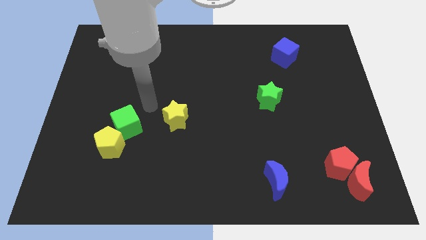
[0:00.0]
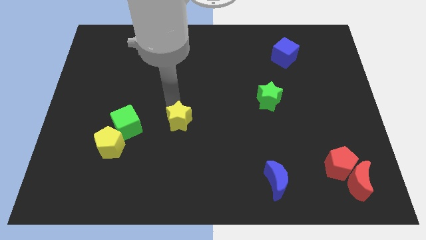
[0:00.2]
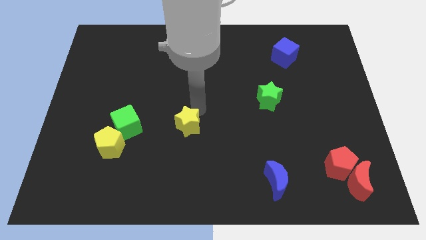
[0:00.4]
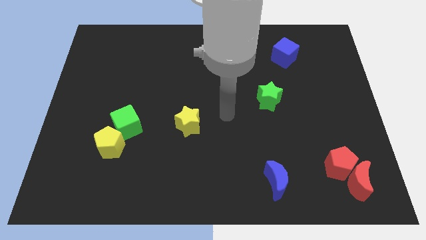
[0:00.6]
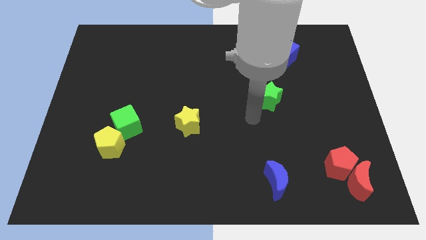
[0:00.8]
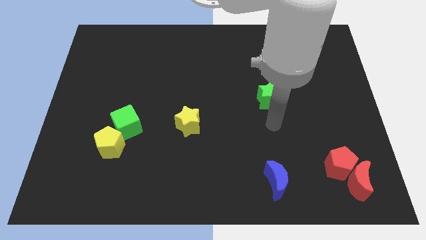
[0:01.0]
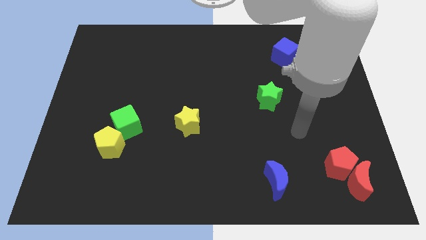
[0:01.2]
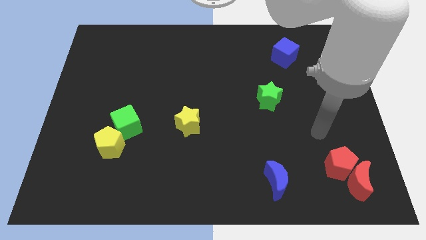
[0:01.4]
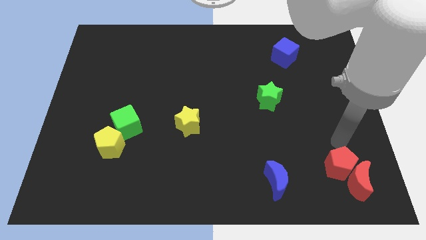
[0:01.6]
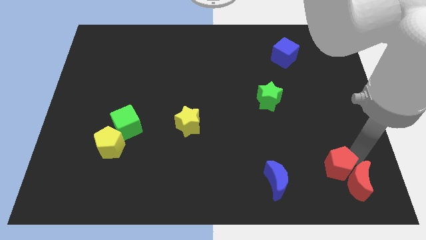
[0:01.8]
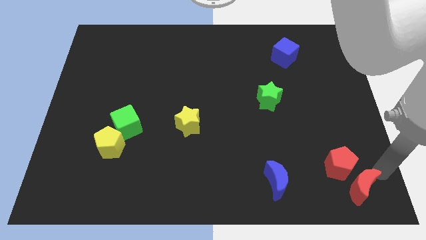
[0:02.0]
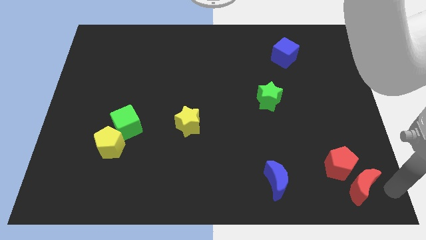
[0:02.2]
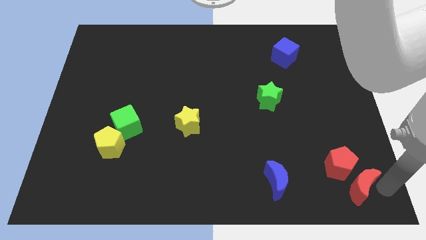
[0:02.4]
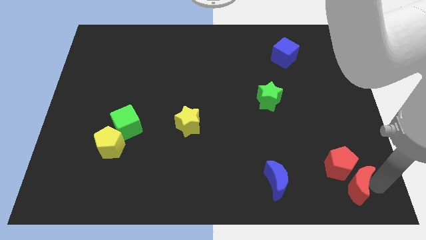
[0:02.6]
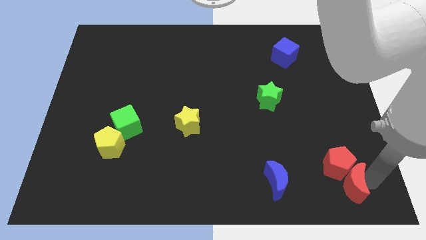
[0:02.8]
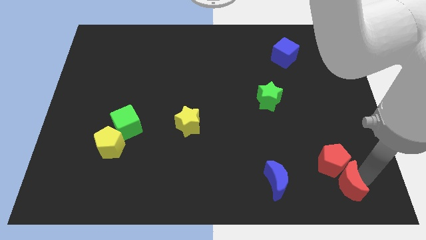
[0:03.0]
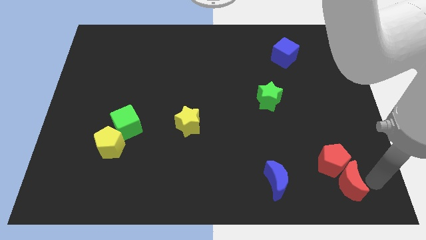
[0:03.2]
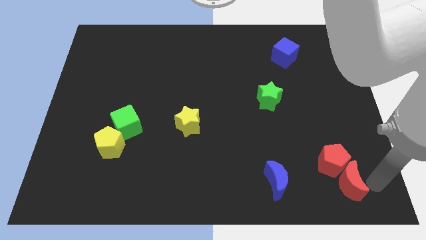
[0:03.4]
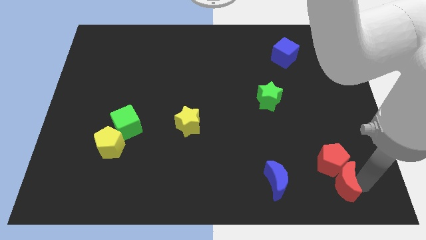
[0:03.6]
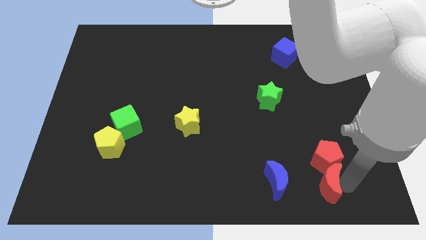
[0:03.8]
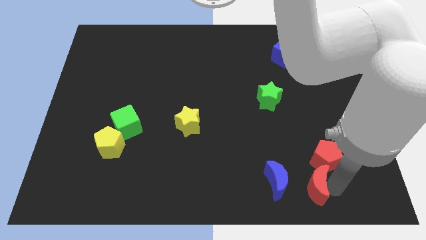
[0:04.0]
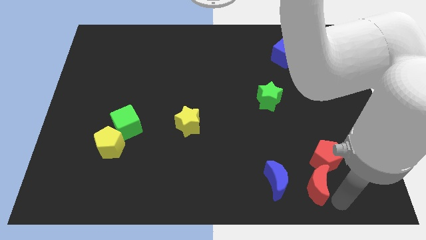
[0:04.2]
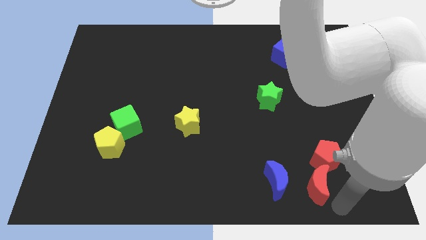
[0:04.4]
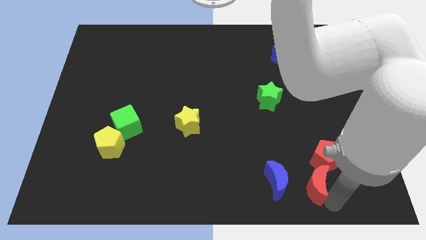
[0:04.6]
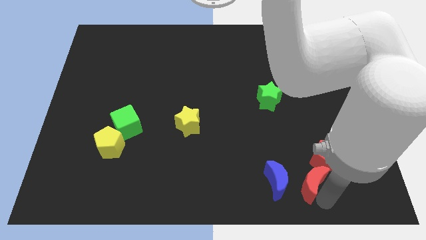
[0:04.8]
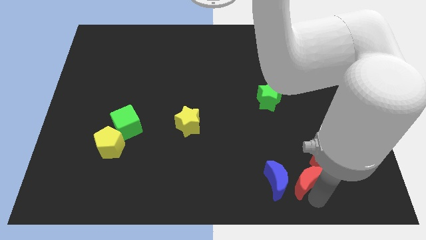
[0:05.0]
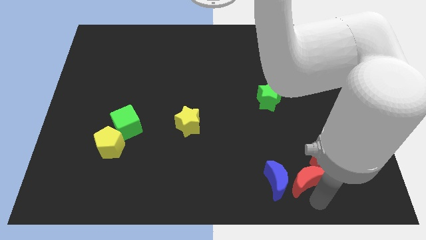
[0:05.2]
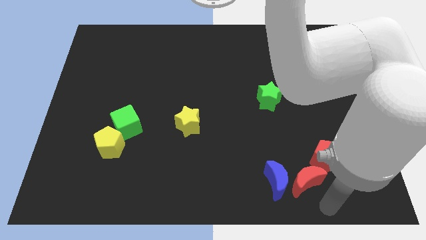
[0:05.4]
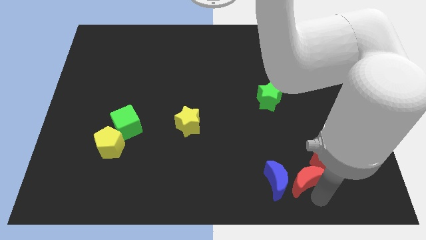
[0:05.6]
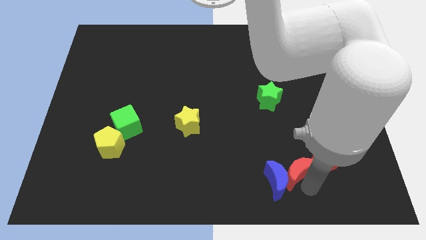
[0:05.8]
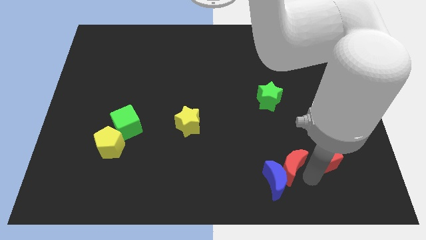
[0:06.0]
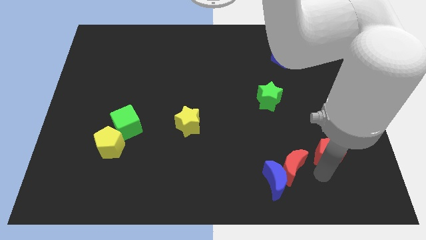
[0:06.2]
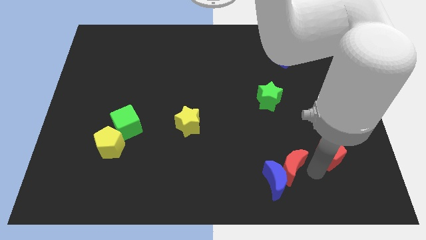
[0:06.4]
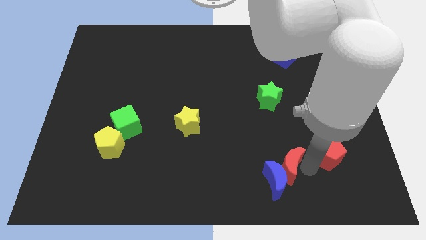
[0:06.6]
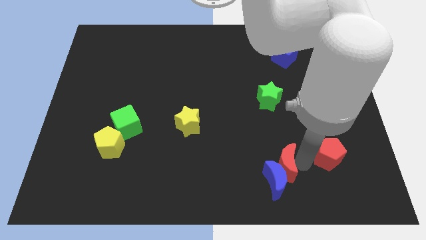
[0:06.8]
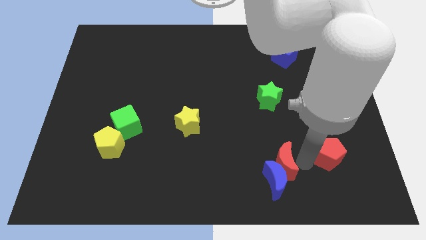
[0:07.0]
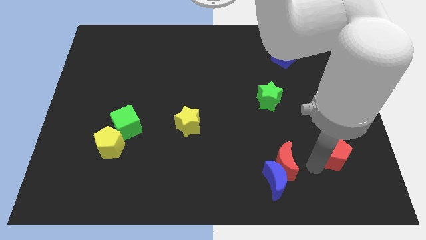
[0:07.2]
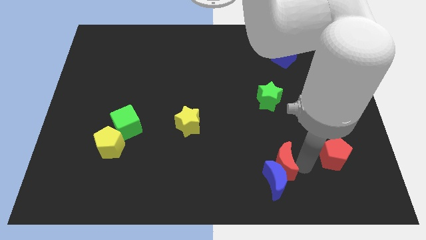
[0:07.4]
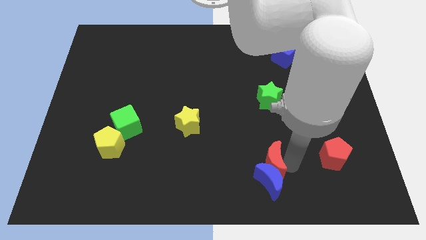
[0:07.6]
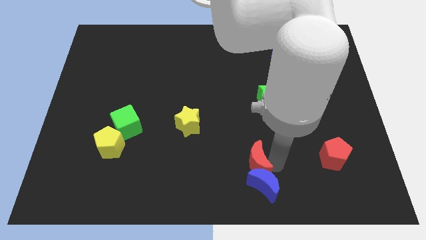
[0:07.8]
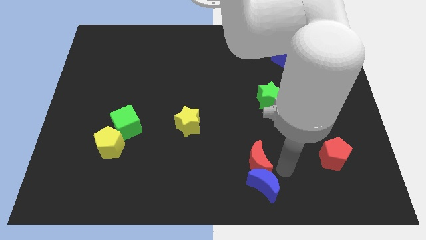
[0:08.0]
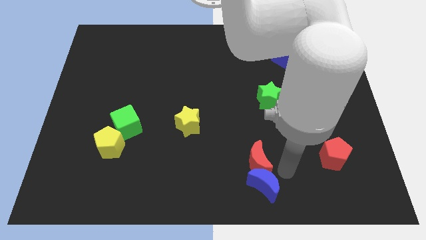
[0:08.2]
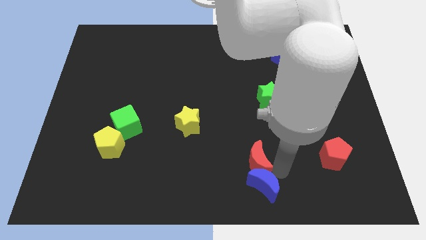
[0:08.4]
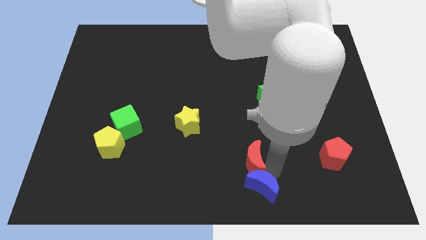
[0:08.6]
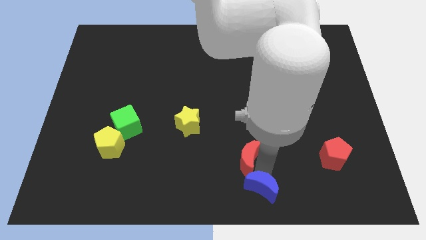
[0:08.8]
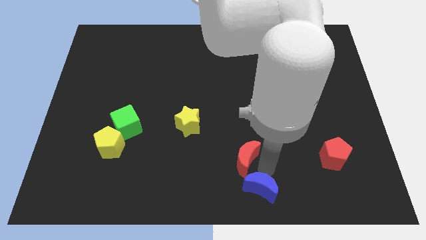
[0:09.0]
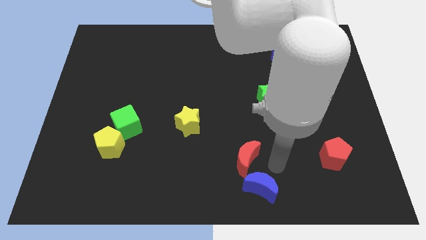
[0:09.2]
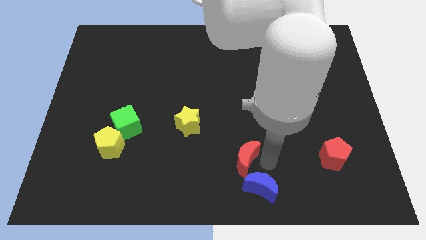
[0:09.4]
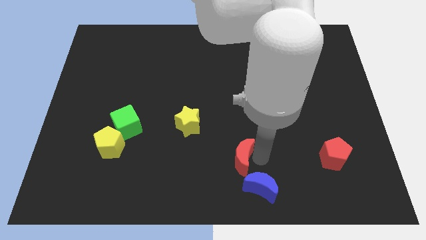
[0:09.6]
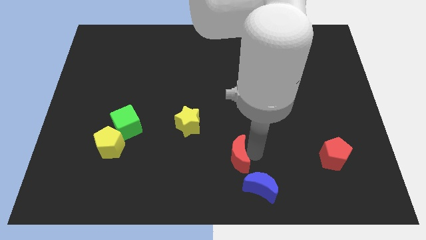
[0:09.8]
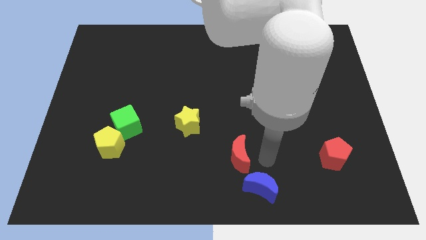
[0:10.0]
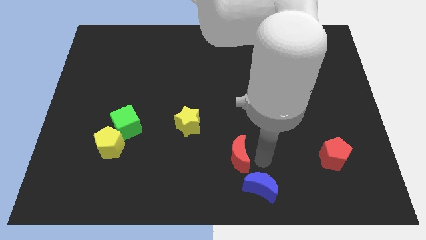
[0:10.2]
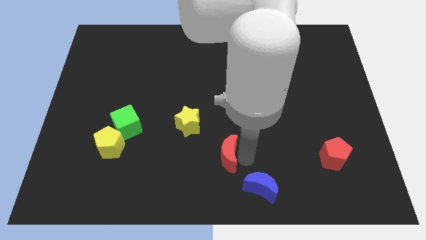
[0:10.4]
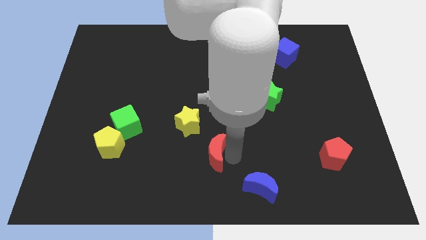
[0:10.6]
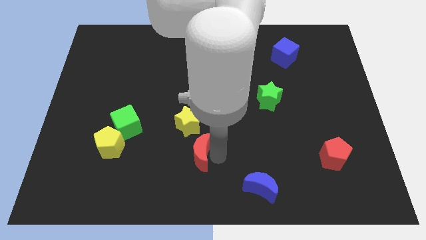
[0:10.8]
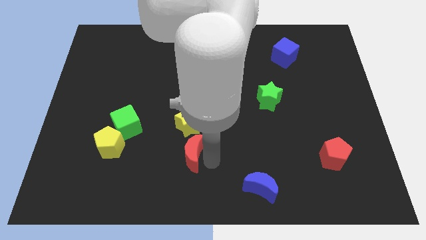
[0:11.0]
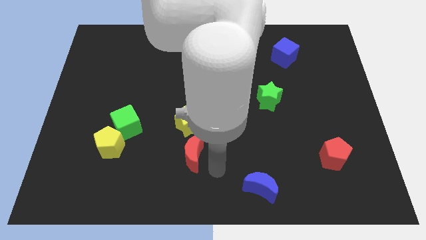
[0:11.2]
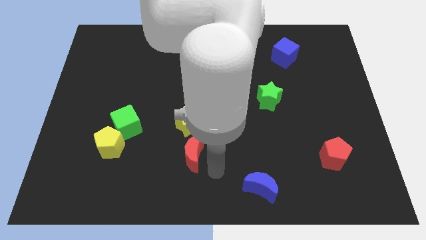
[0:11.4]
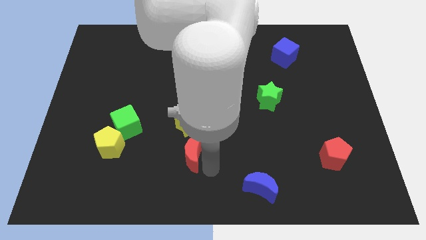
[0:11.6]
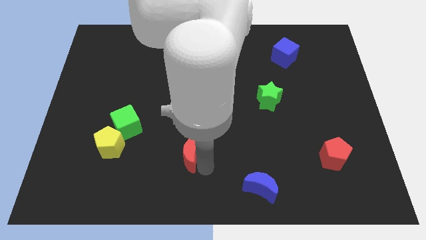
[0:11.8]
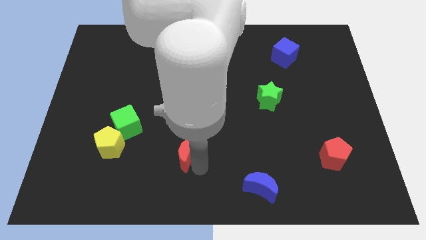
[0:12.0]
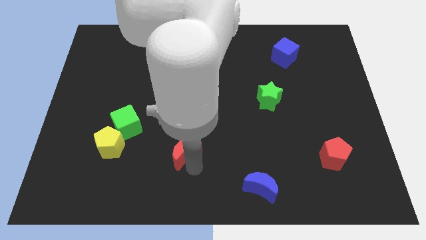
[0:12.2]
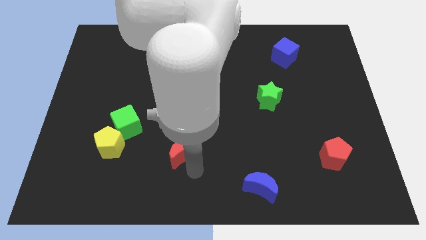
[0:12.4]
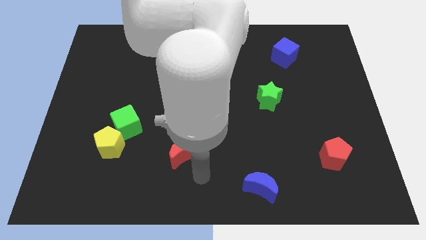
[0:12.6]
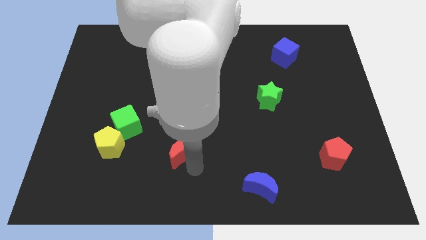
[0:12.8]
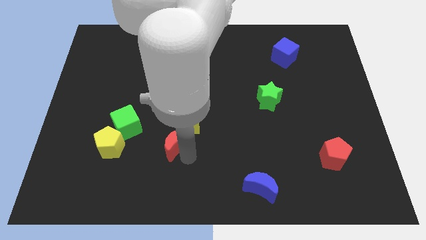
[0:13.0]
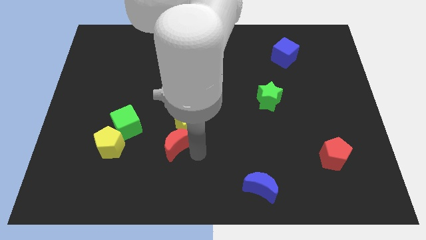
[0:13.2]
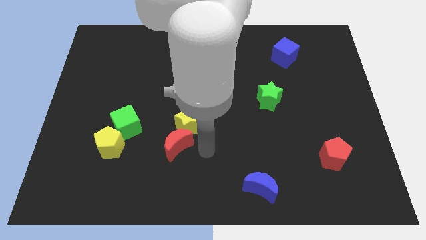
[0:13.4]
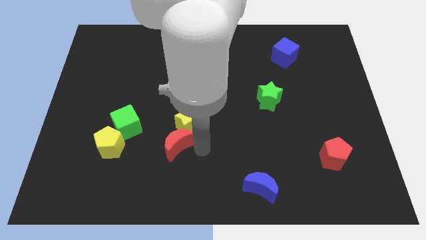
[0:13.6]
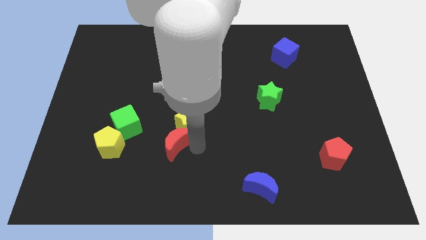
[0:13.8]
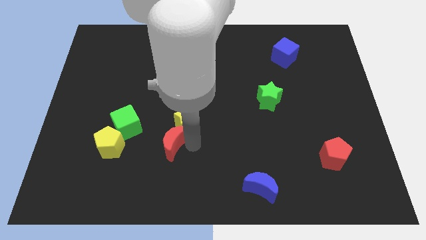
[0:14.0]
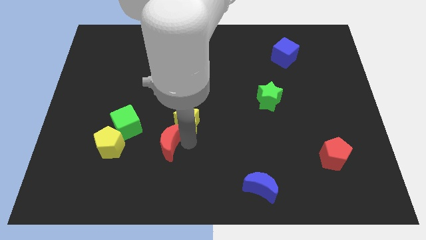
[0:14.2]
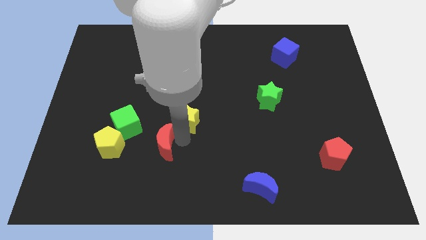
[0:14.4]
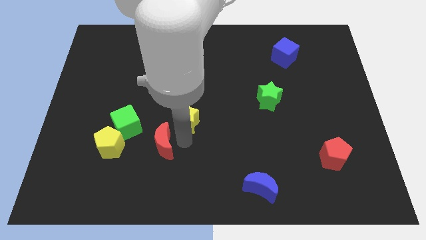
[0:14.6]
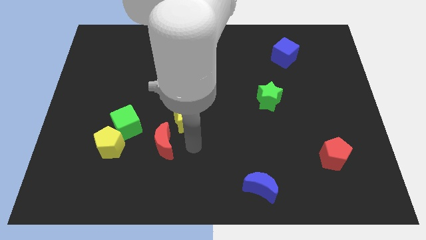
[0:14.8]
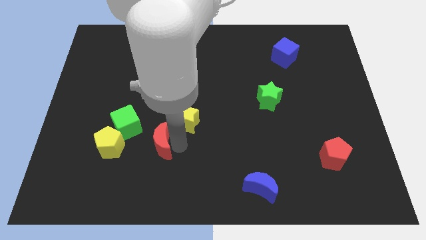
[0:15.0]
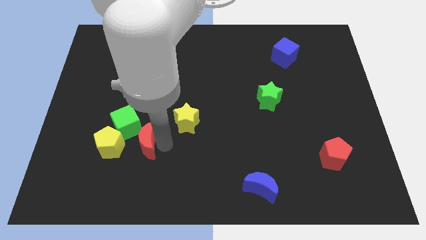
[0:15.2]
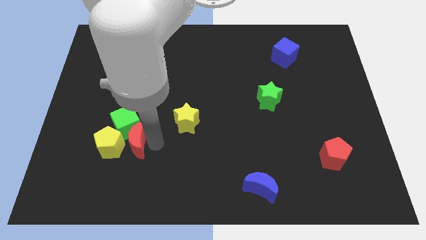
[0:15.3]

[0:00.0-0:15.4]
put the red moon towards the yellow pentagon
